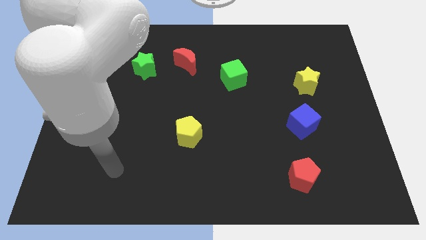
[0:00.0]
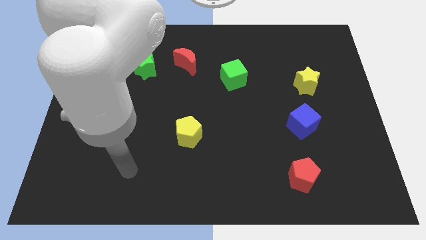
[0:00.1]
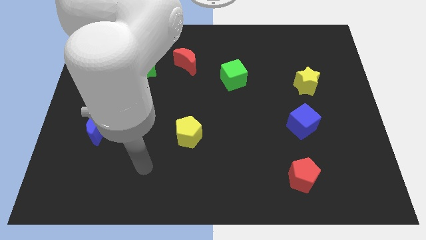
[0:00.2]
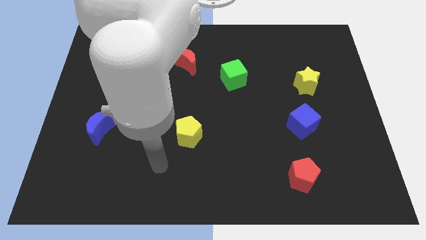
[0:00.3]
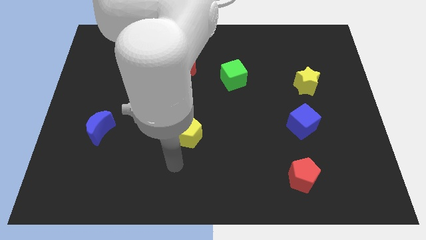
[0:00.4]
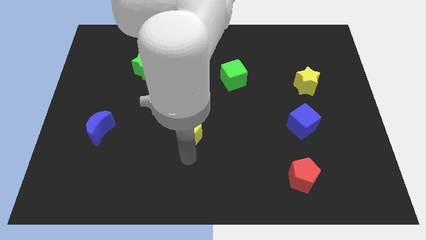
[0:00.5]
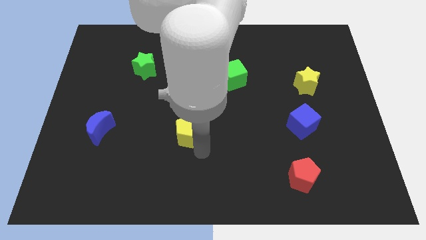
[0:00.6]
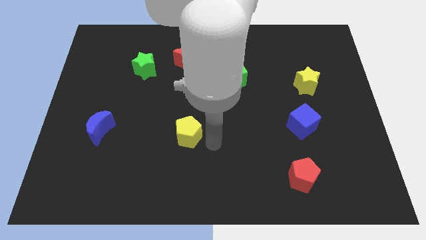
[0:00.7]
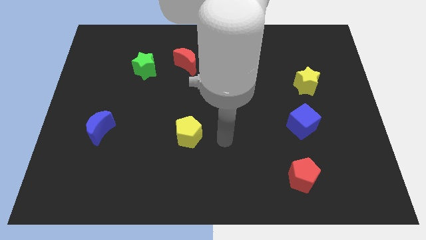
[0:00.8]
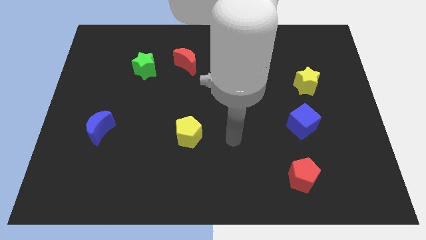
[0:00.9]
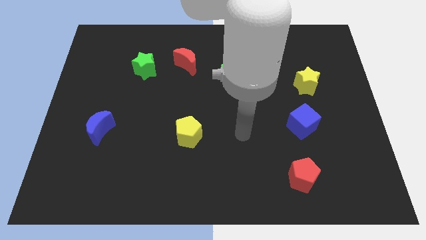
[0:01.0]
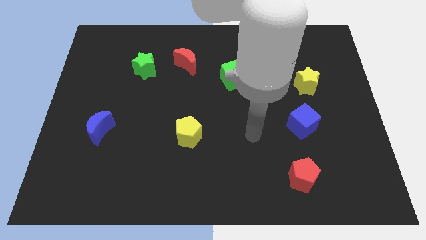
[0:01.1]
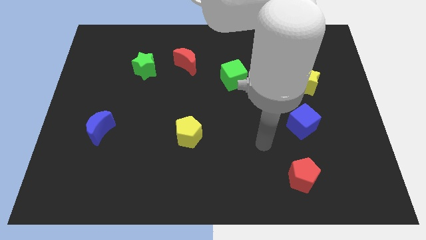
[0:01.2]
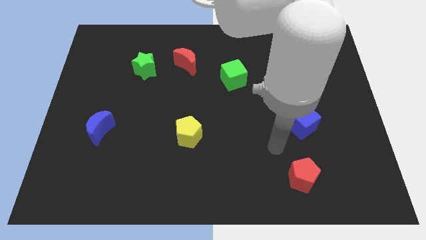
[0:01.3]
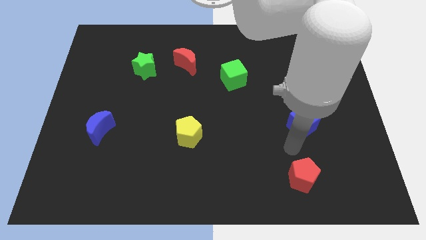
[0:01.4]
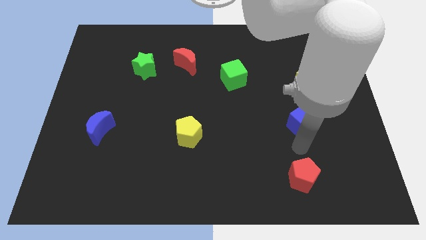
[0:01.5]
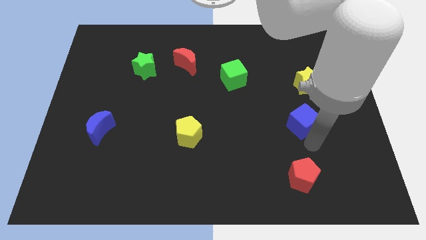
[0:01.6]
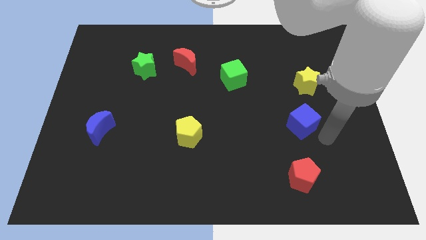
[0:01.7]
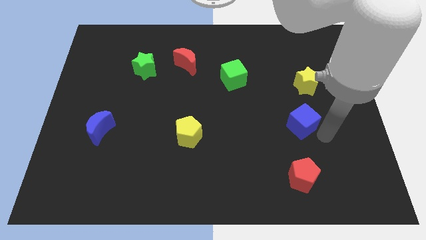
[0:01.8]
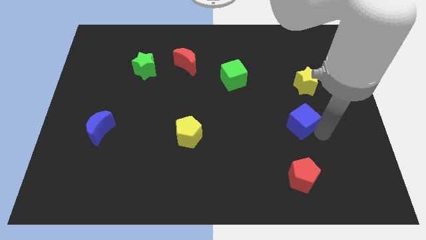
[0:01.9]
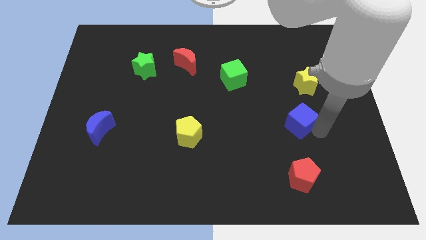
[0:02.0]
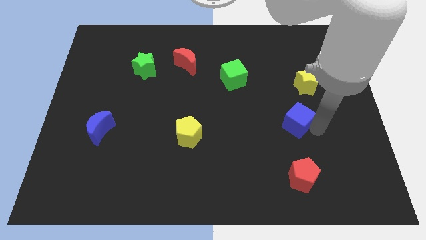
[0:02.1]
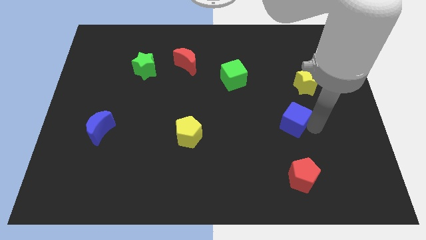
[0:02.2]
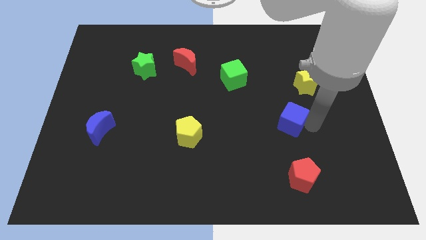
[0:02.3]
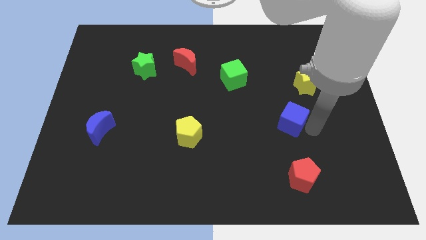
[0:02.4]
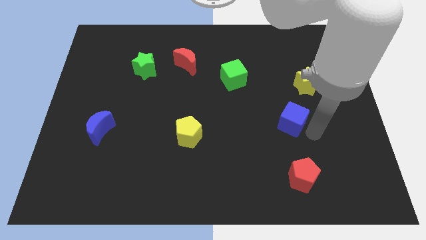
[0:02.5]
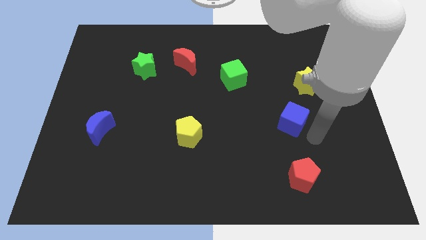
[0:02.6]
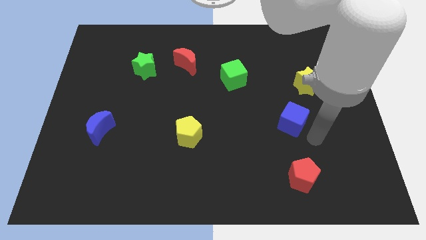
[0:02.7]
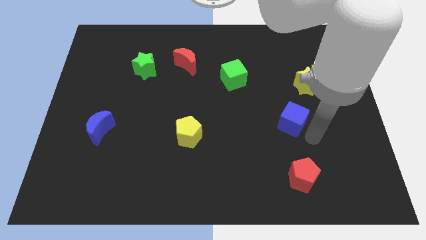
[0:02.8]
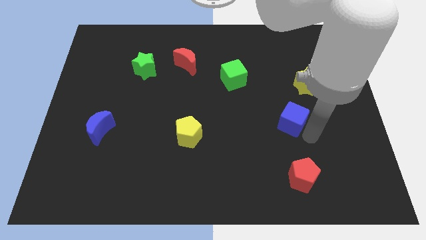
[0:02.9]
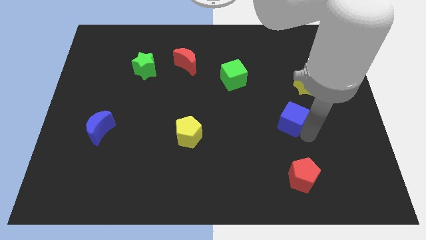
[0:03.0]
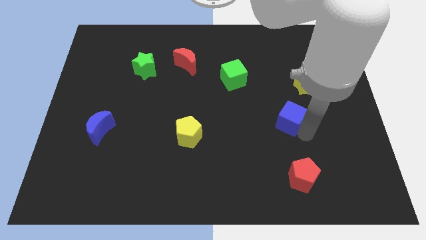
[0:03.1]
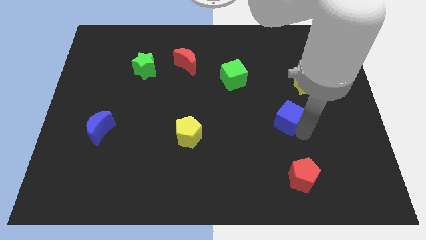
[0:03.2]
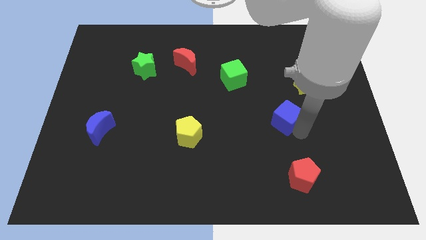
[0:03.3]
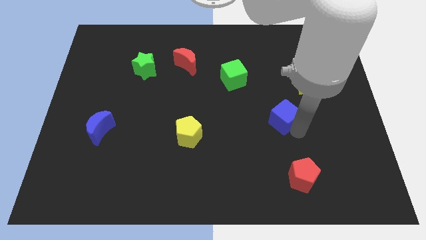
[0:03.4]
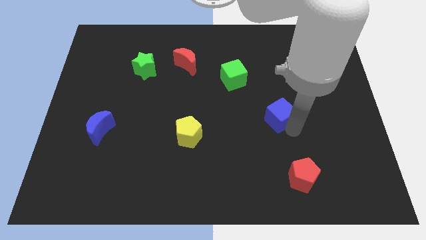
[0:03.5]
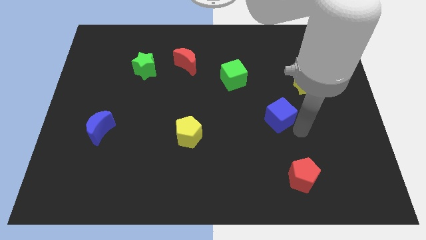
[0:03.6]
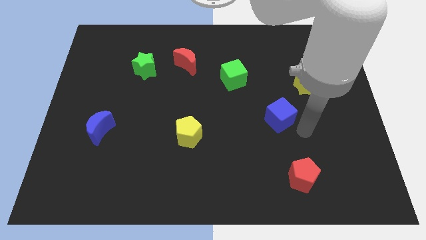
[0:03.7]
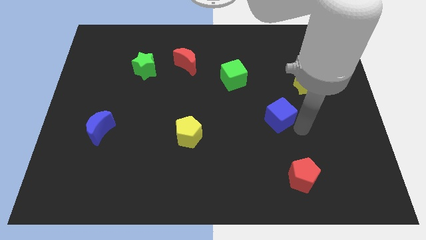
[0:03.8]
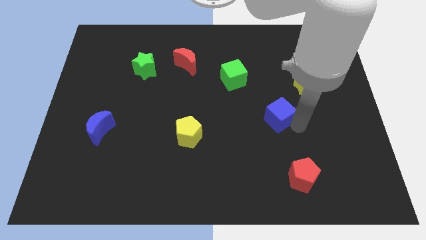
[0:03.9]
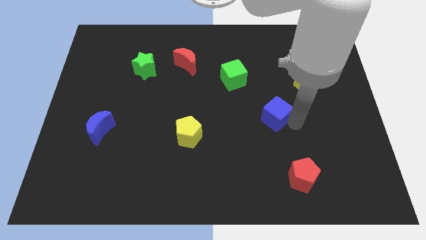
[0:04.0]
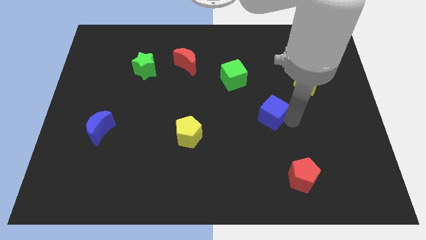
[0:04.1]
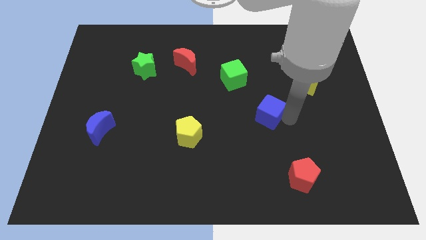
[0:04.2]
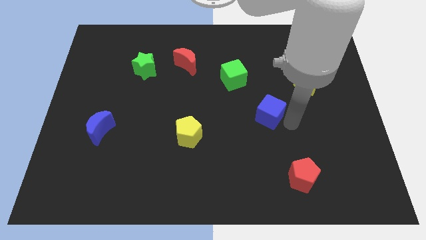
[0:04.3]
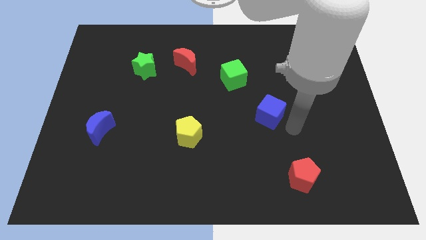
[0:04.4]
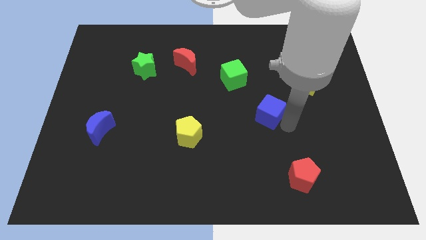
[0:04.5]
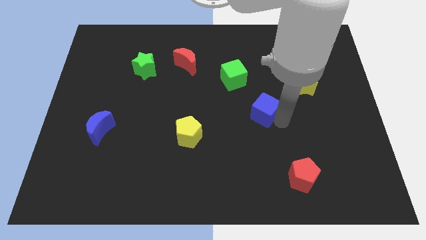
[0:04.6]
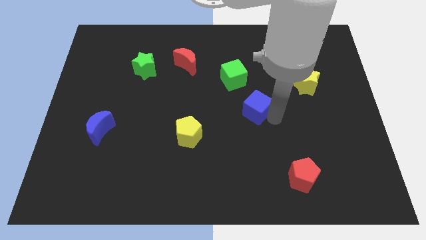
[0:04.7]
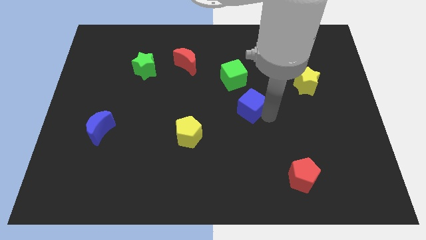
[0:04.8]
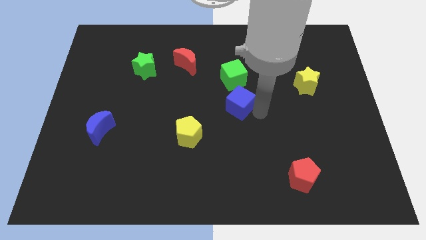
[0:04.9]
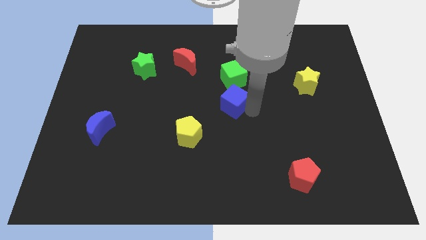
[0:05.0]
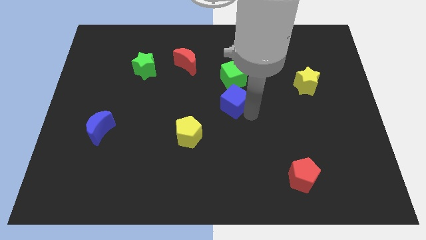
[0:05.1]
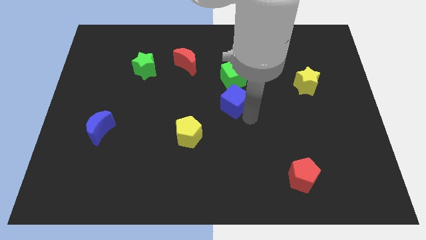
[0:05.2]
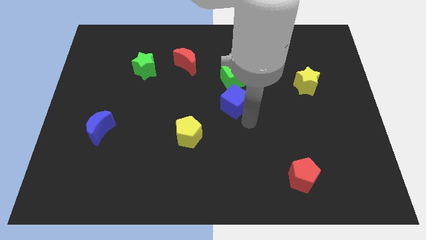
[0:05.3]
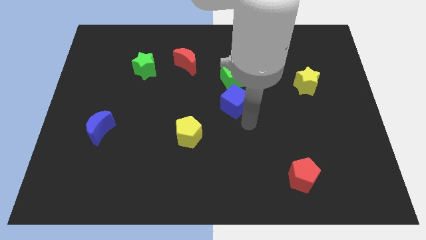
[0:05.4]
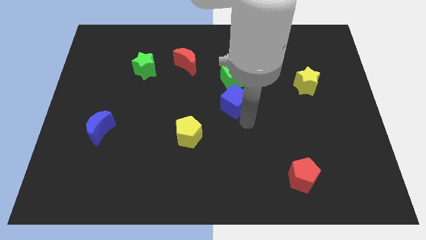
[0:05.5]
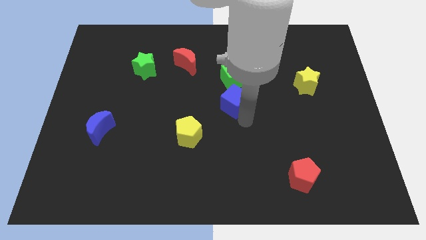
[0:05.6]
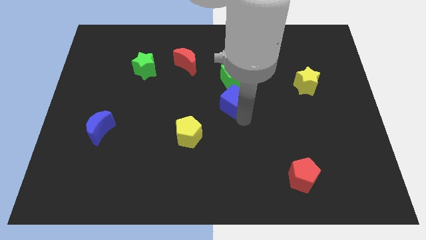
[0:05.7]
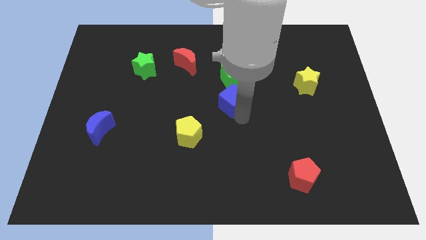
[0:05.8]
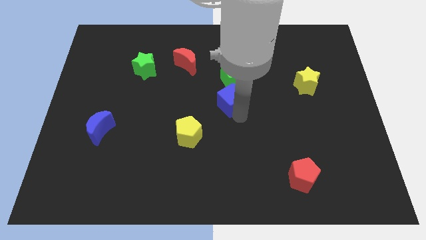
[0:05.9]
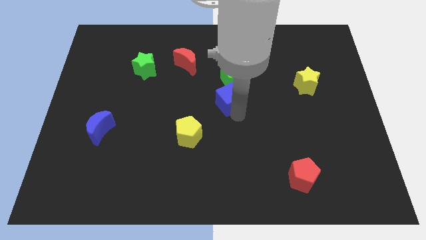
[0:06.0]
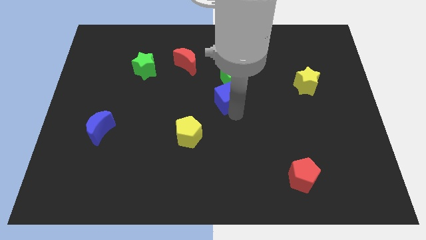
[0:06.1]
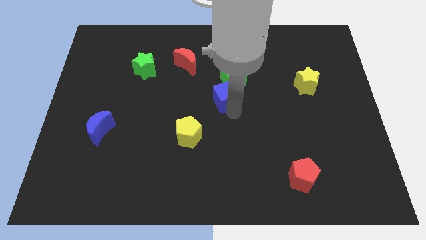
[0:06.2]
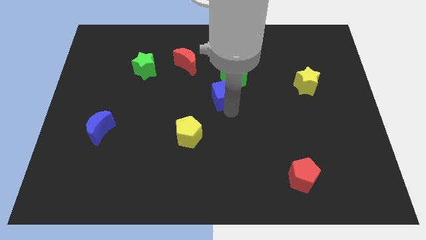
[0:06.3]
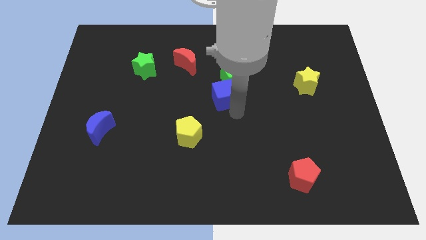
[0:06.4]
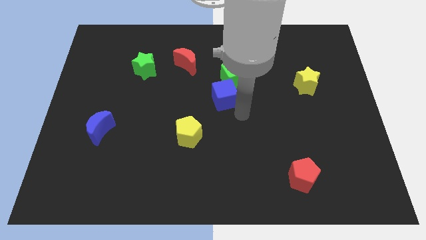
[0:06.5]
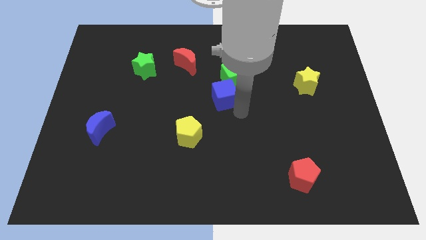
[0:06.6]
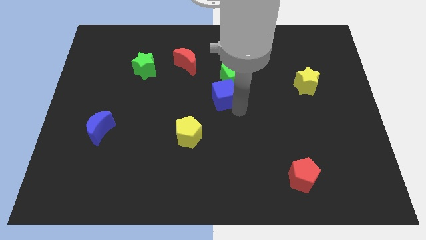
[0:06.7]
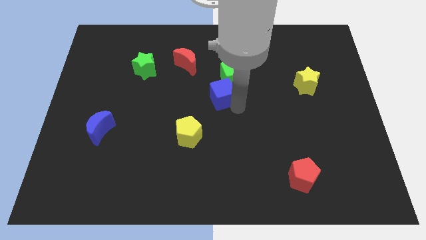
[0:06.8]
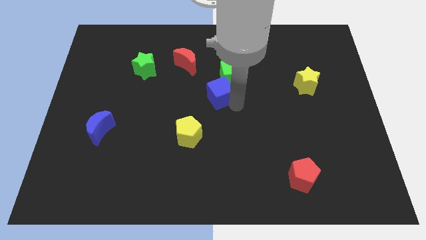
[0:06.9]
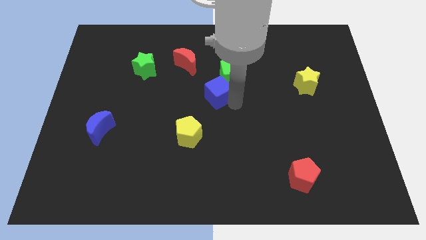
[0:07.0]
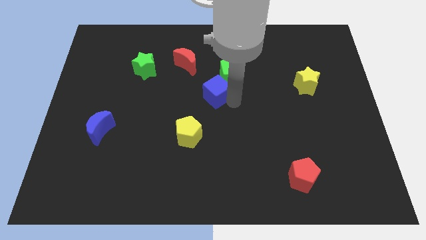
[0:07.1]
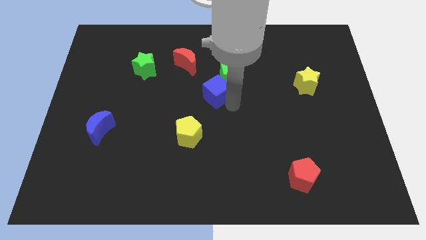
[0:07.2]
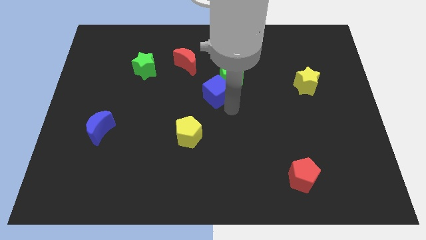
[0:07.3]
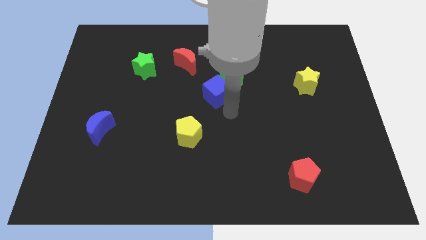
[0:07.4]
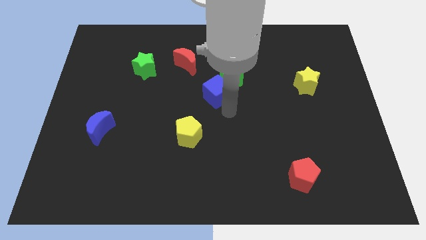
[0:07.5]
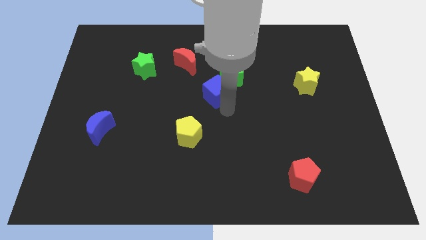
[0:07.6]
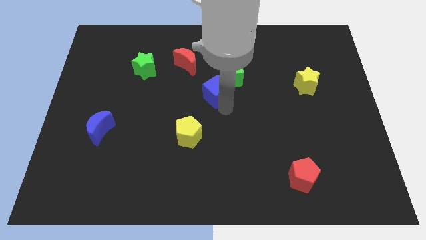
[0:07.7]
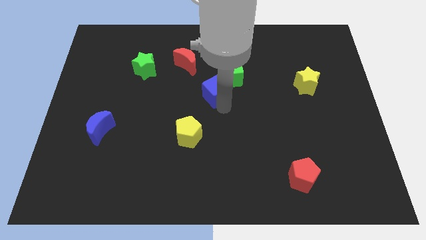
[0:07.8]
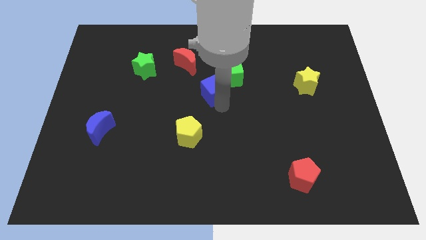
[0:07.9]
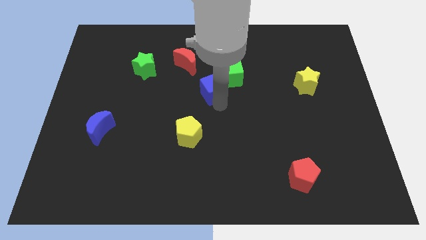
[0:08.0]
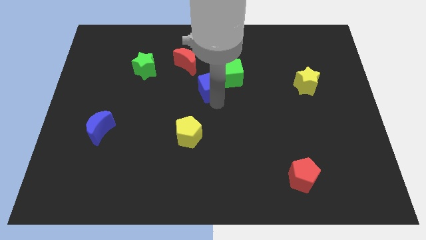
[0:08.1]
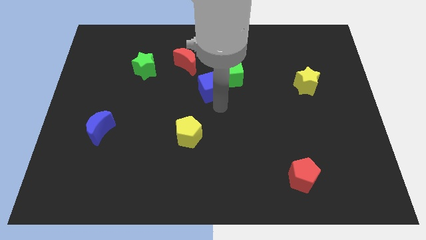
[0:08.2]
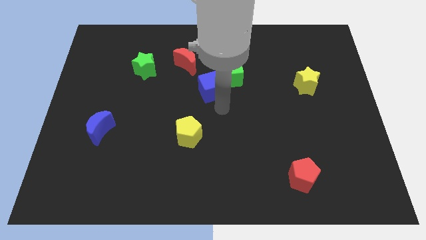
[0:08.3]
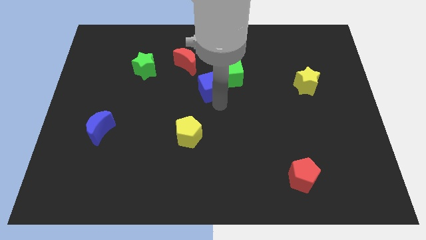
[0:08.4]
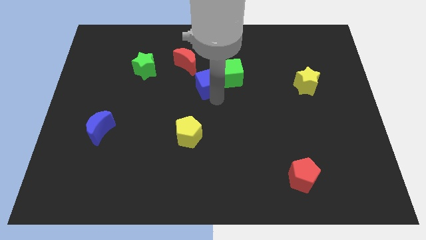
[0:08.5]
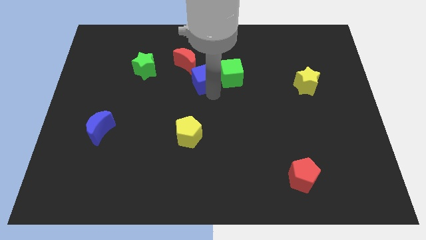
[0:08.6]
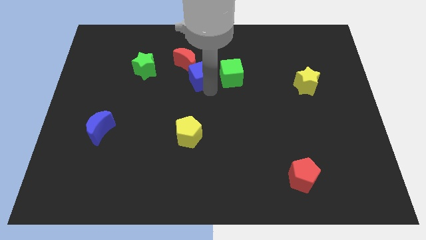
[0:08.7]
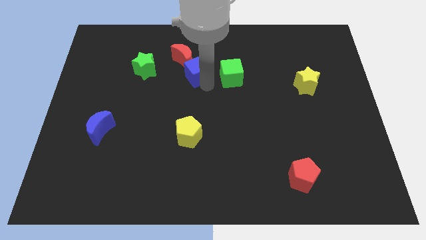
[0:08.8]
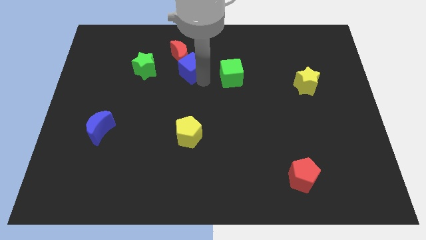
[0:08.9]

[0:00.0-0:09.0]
put the blue cube close to the red moon
